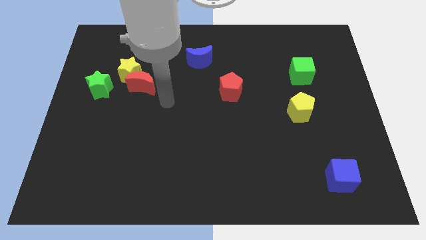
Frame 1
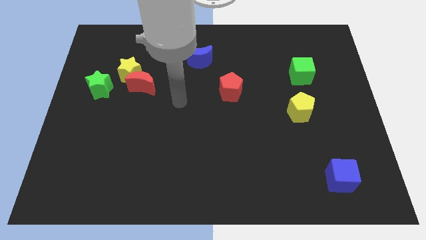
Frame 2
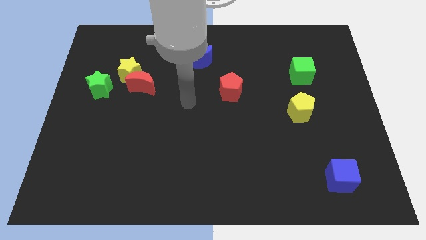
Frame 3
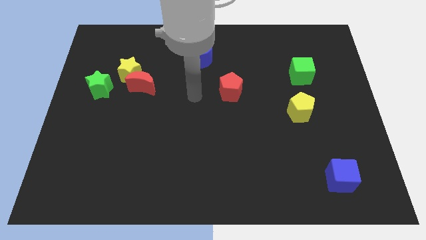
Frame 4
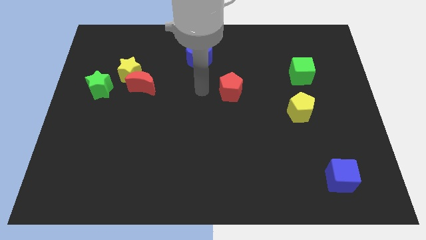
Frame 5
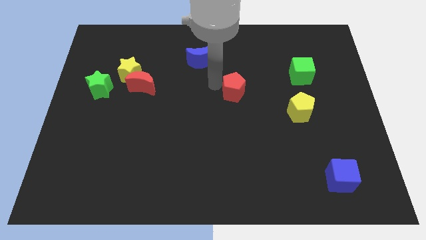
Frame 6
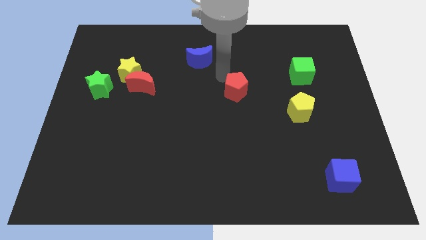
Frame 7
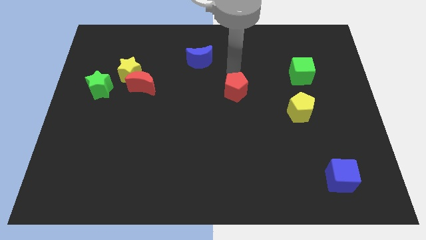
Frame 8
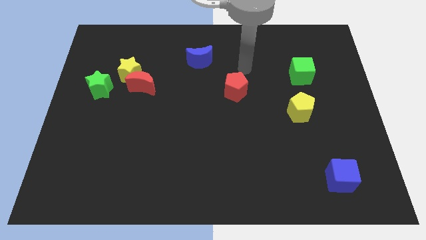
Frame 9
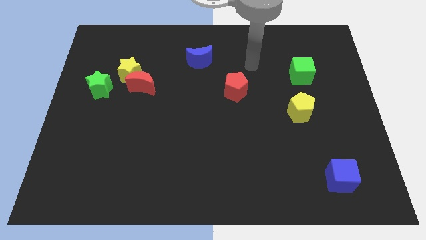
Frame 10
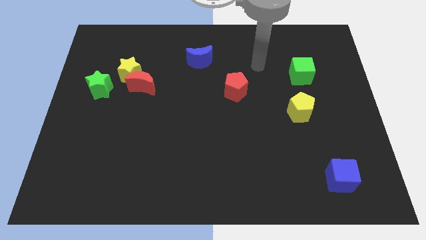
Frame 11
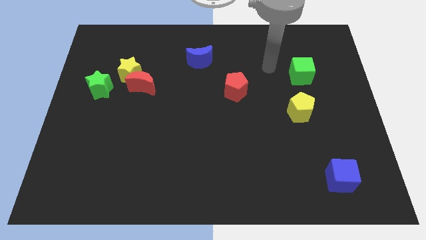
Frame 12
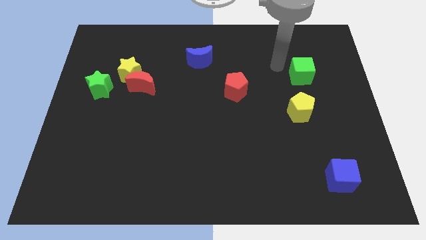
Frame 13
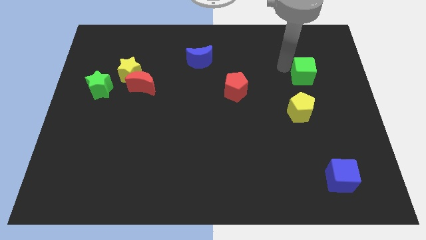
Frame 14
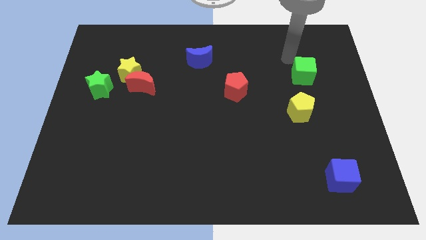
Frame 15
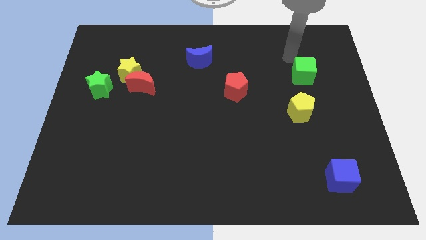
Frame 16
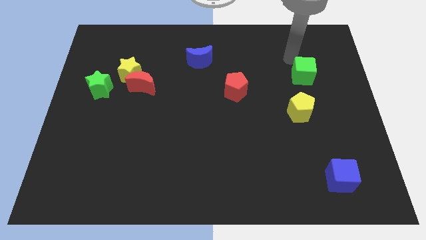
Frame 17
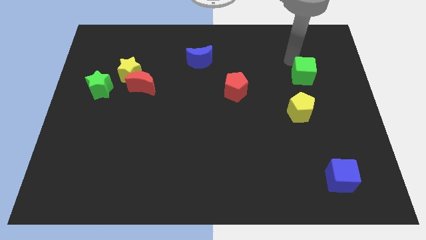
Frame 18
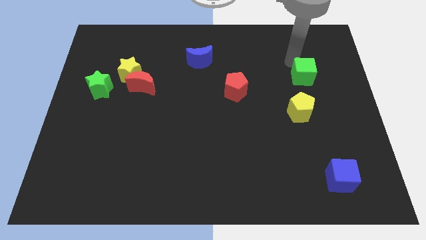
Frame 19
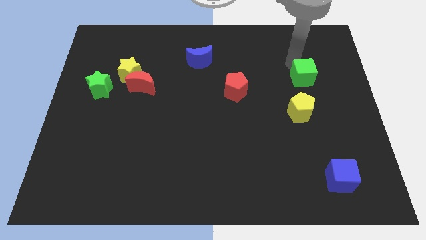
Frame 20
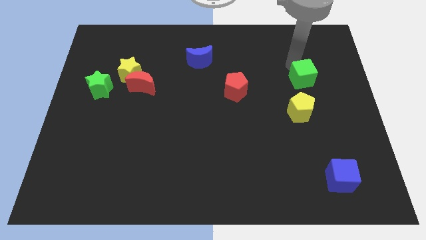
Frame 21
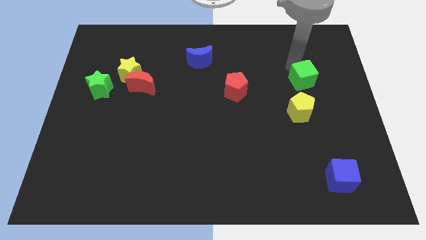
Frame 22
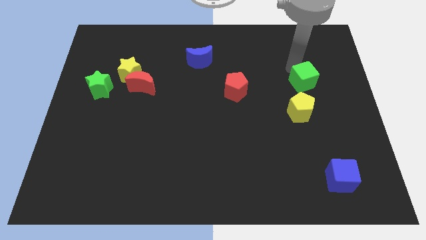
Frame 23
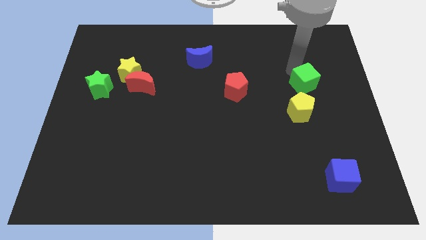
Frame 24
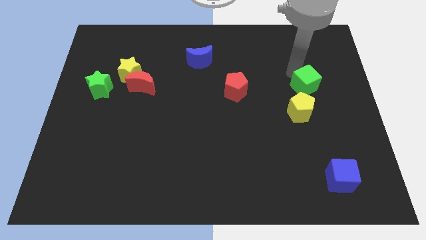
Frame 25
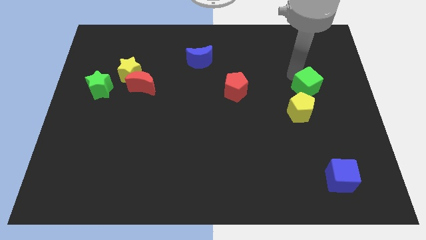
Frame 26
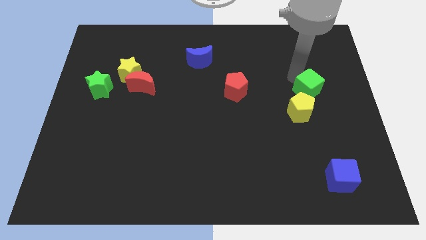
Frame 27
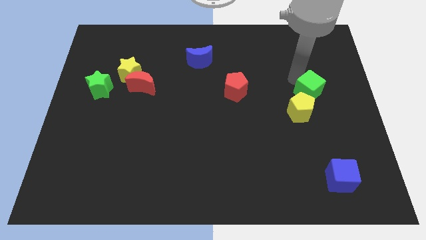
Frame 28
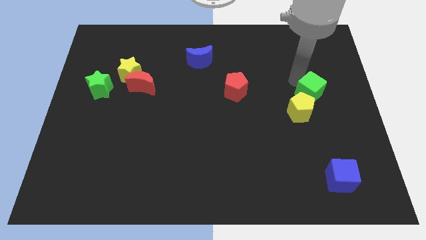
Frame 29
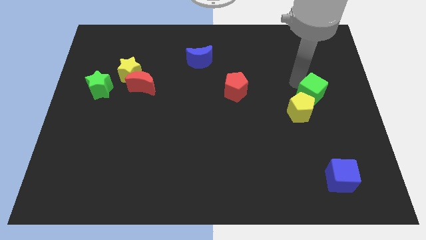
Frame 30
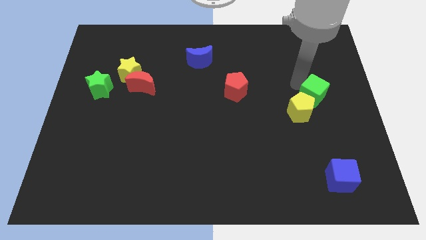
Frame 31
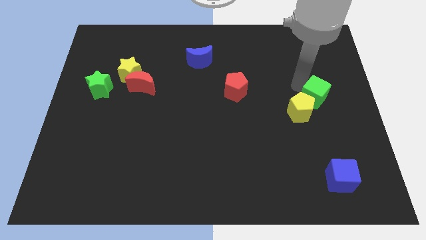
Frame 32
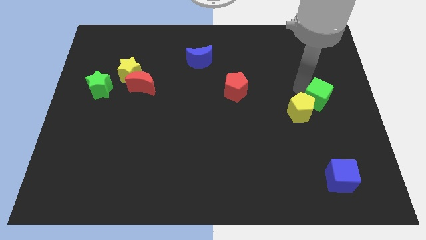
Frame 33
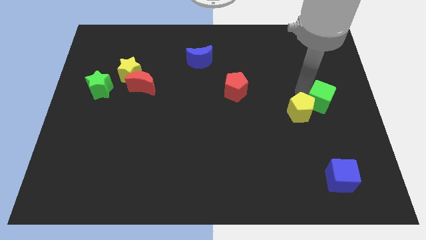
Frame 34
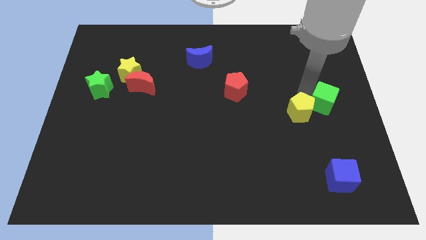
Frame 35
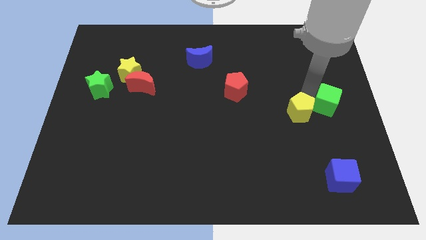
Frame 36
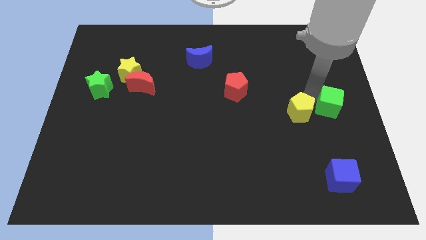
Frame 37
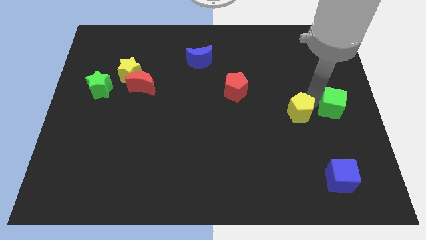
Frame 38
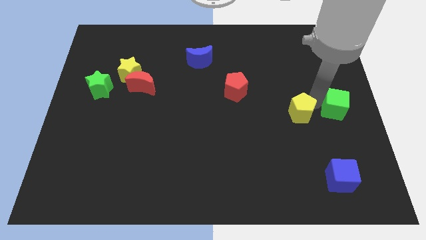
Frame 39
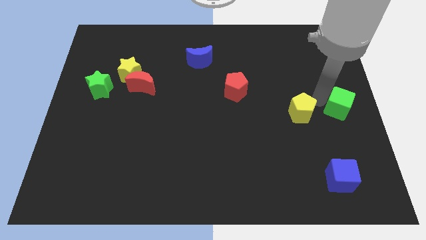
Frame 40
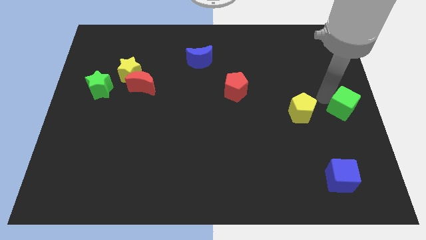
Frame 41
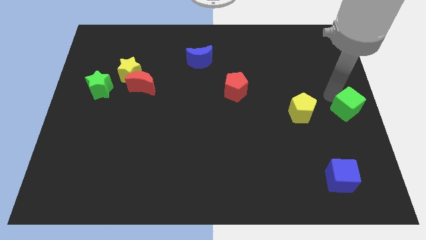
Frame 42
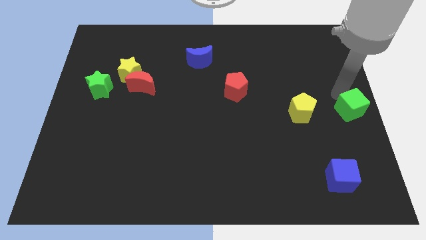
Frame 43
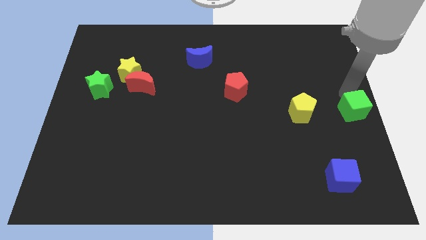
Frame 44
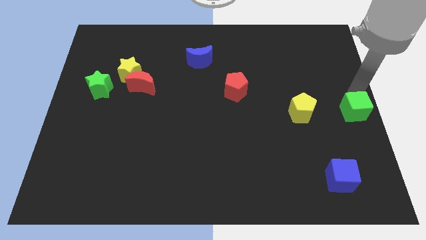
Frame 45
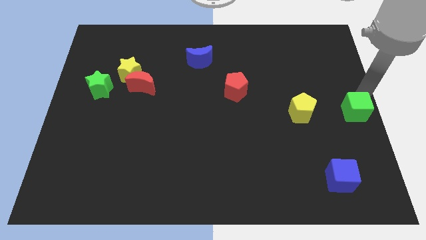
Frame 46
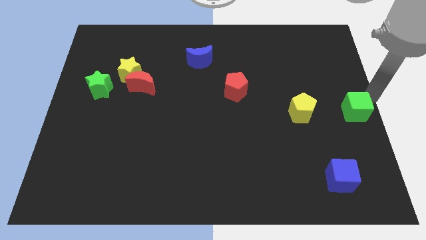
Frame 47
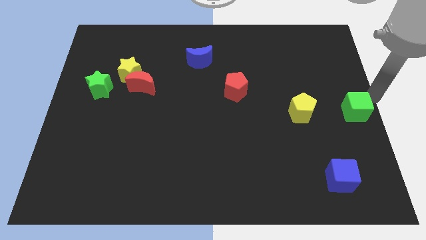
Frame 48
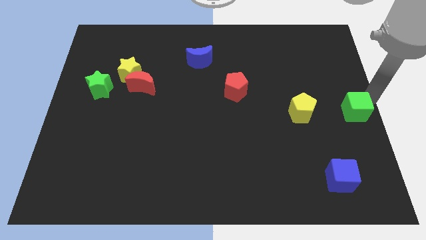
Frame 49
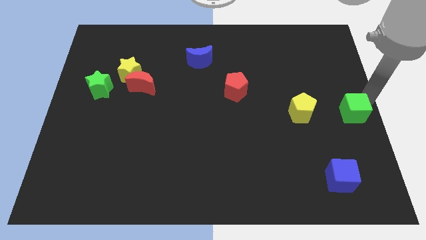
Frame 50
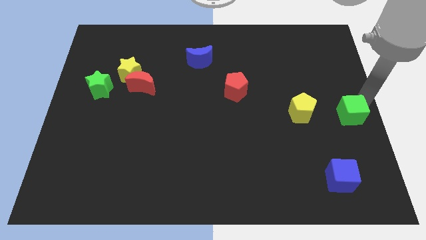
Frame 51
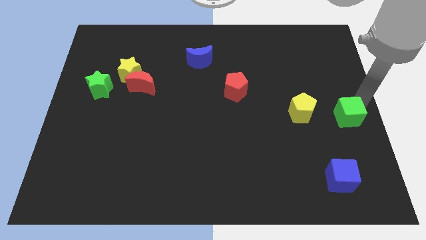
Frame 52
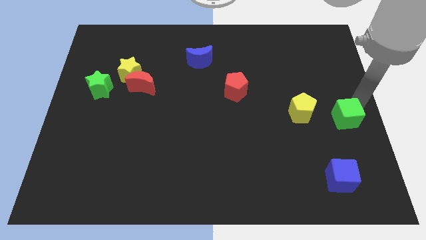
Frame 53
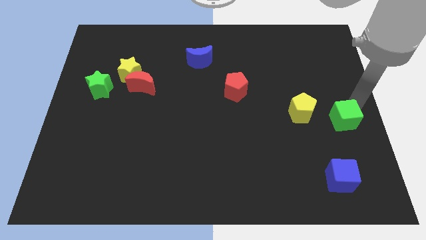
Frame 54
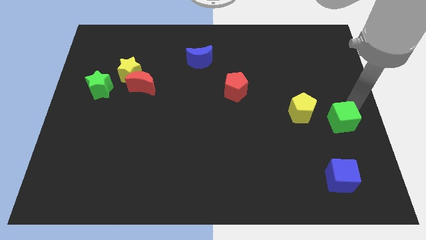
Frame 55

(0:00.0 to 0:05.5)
move the green cube to the bottom right of the yellow pentagon
